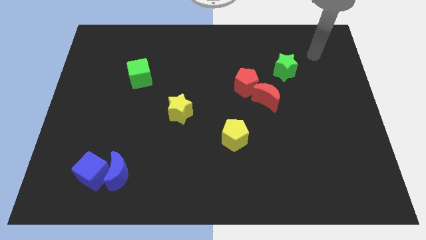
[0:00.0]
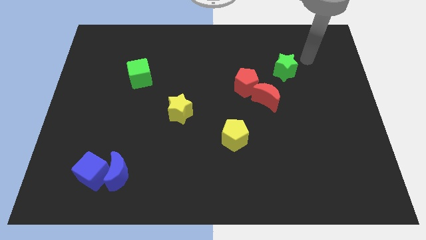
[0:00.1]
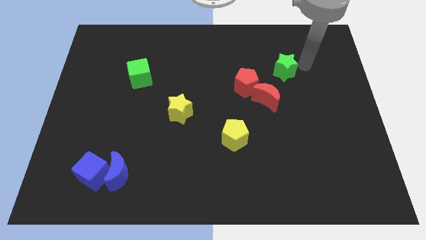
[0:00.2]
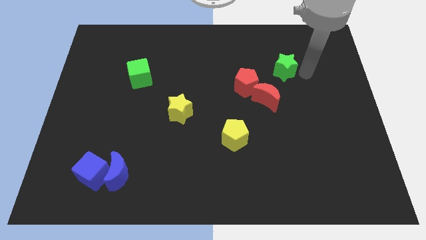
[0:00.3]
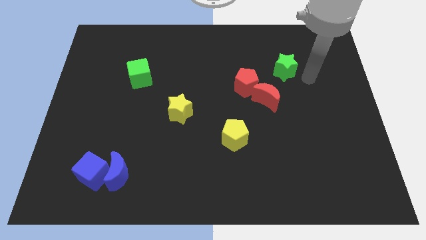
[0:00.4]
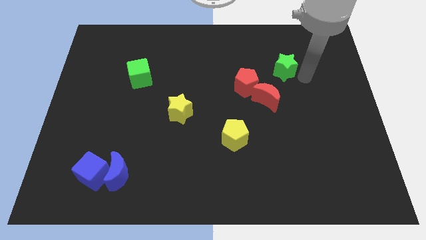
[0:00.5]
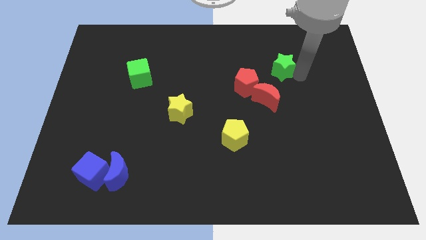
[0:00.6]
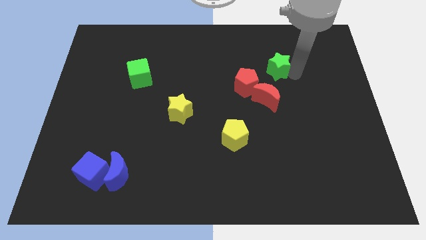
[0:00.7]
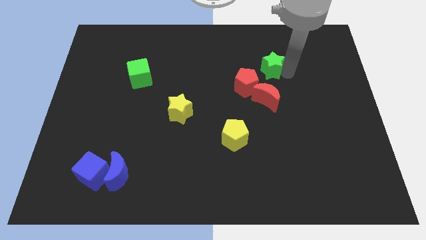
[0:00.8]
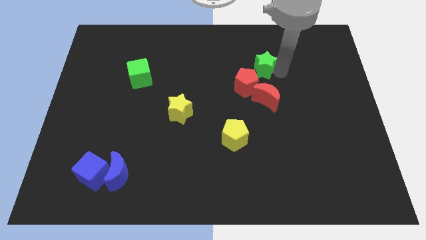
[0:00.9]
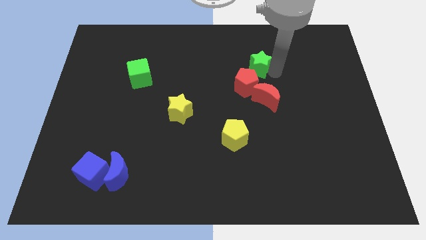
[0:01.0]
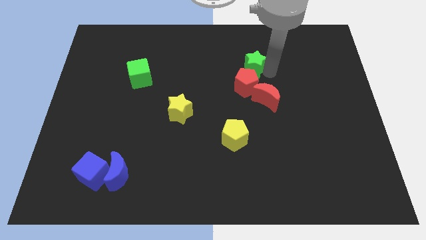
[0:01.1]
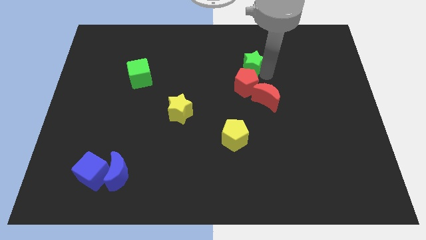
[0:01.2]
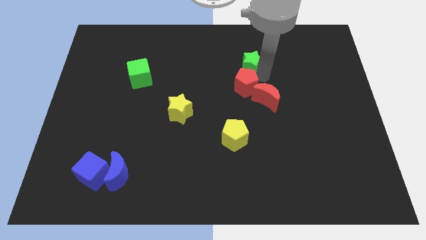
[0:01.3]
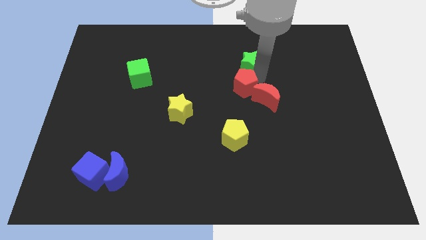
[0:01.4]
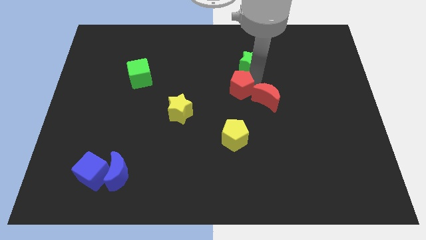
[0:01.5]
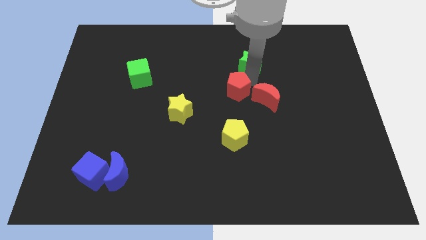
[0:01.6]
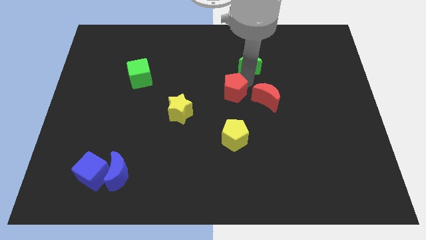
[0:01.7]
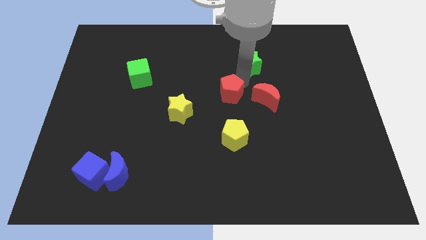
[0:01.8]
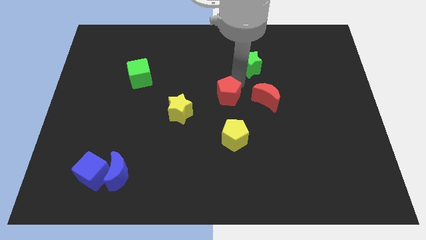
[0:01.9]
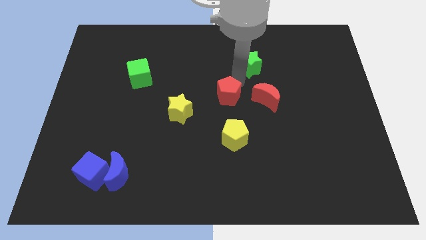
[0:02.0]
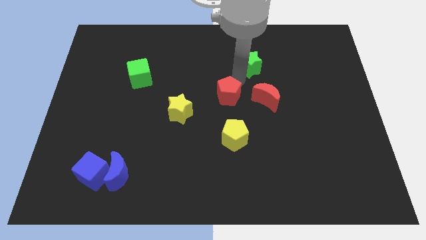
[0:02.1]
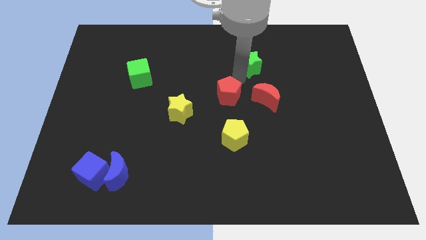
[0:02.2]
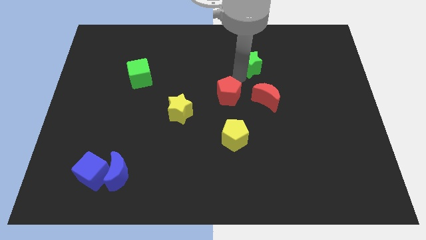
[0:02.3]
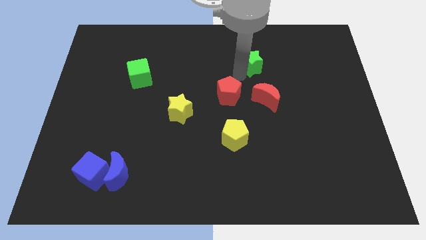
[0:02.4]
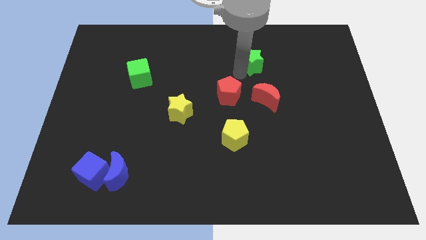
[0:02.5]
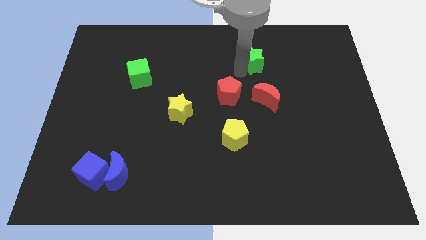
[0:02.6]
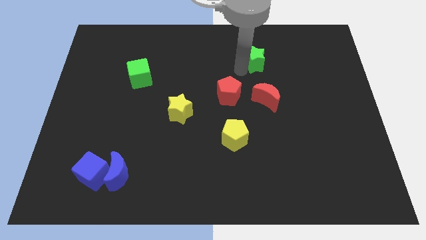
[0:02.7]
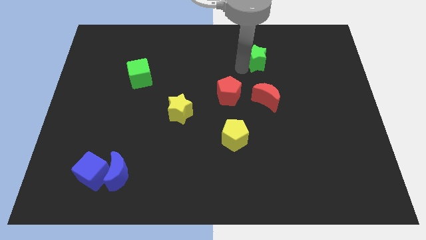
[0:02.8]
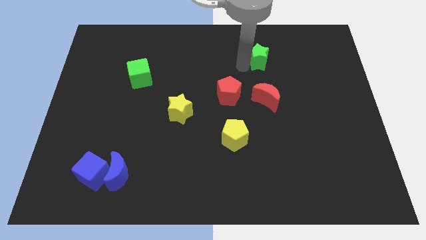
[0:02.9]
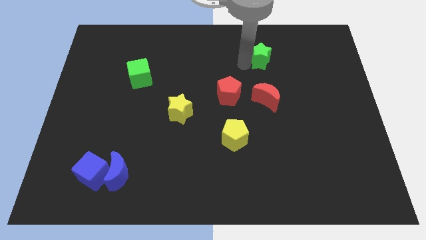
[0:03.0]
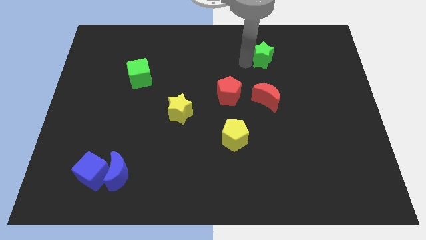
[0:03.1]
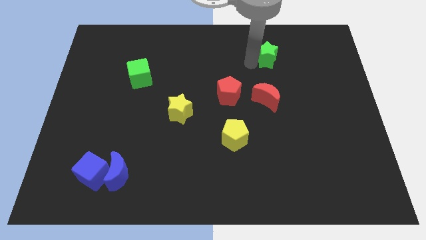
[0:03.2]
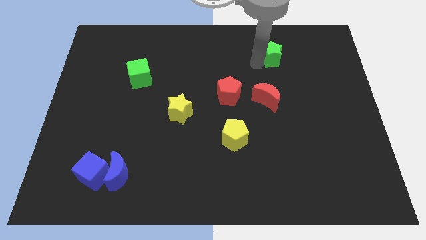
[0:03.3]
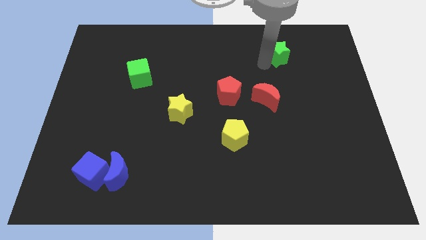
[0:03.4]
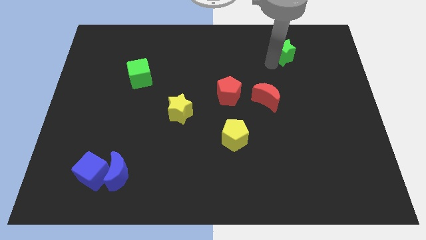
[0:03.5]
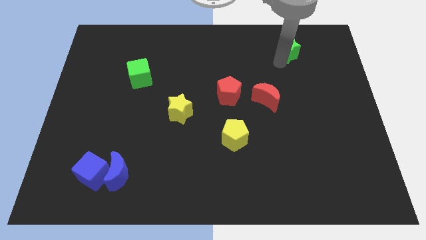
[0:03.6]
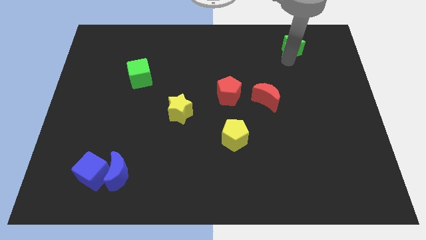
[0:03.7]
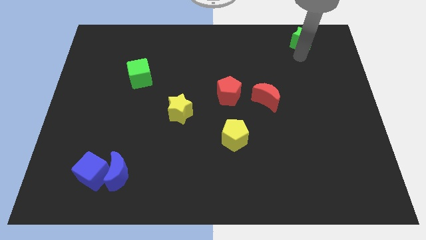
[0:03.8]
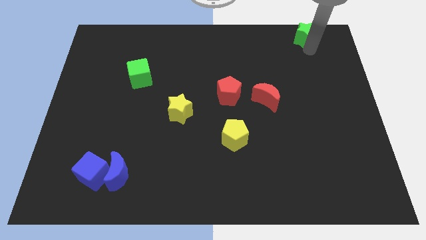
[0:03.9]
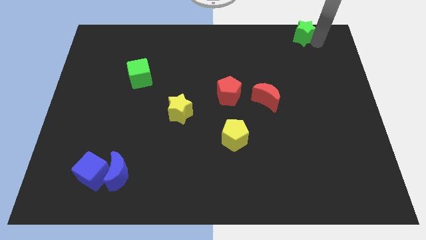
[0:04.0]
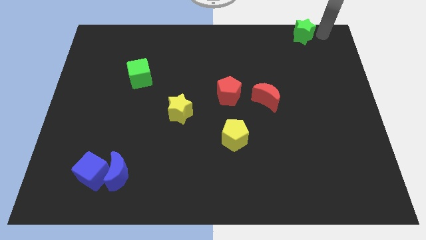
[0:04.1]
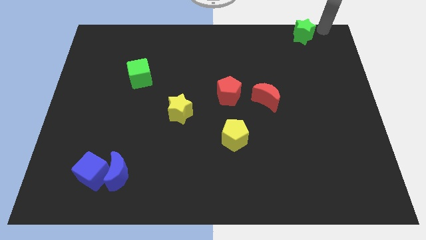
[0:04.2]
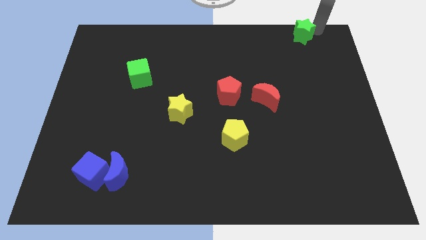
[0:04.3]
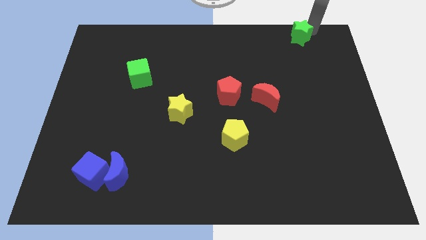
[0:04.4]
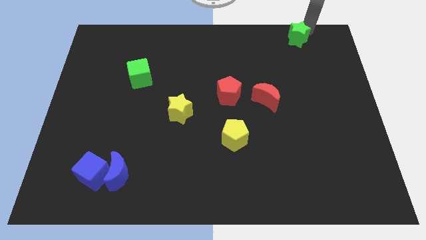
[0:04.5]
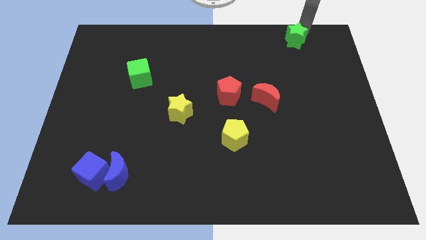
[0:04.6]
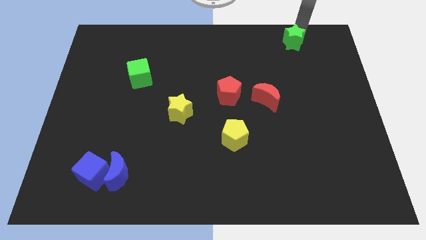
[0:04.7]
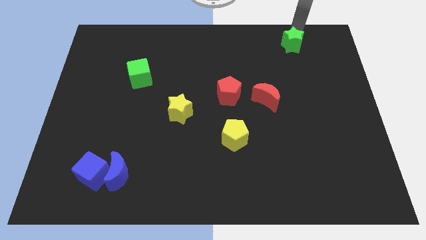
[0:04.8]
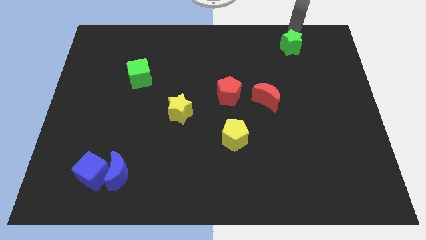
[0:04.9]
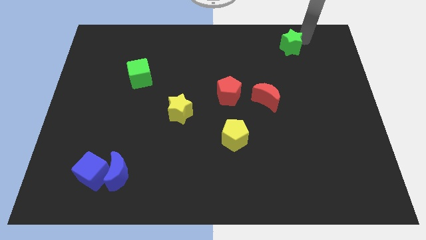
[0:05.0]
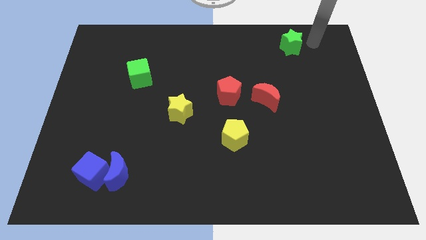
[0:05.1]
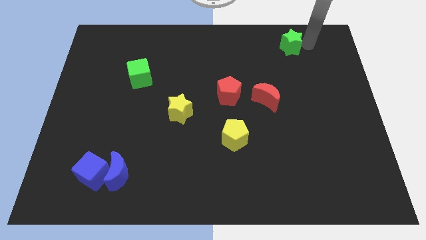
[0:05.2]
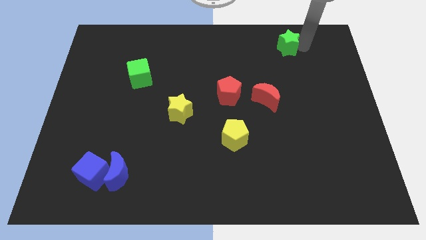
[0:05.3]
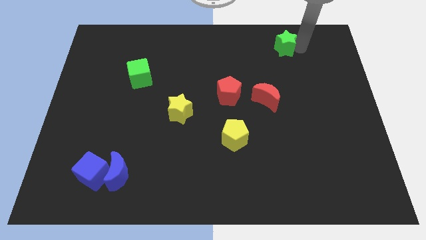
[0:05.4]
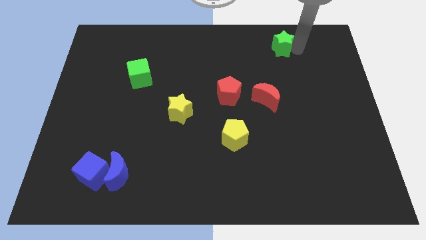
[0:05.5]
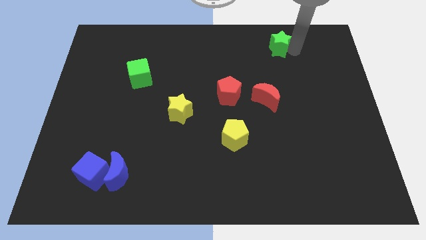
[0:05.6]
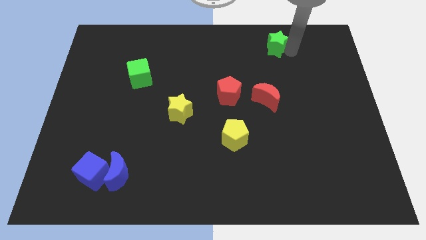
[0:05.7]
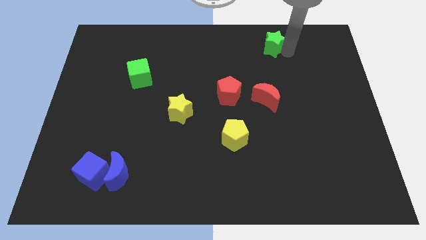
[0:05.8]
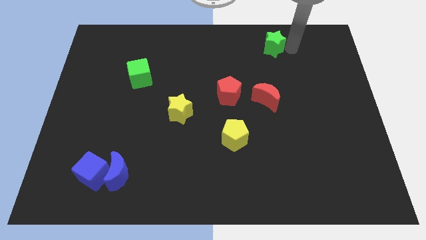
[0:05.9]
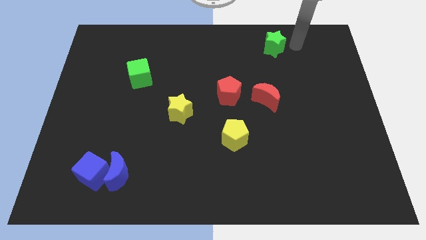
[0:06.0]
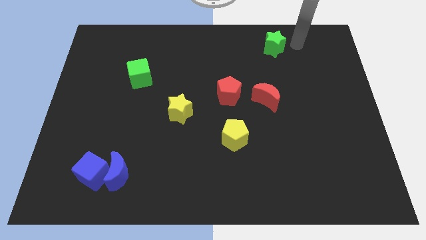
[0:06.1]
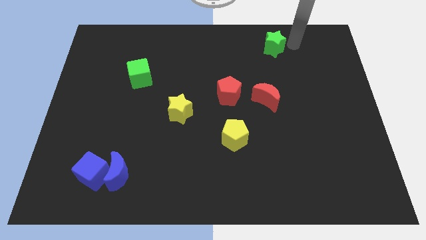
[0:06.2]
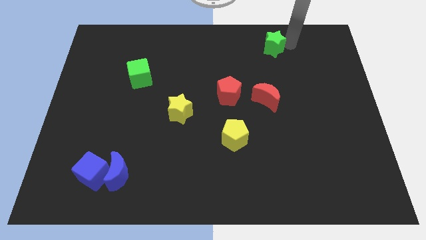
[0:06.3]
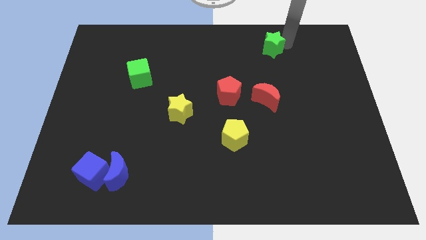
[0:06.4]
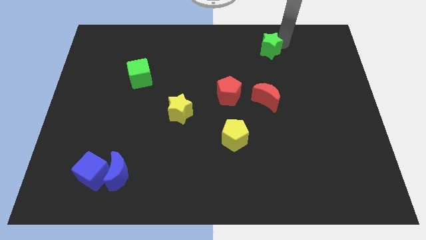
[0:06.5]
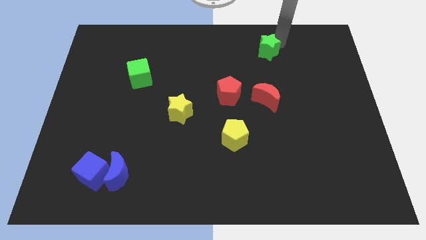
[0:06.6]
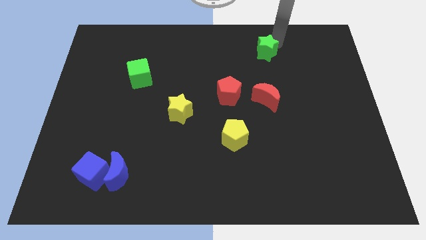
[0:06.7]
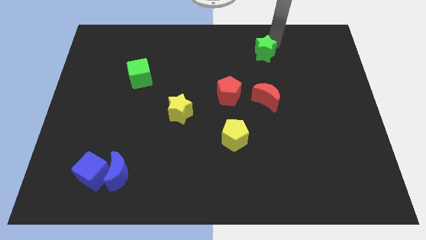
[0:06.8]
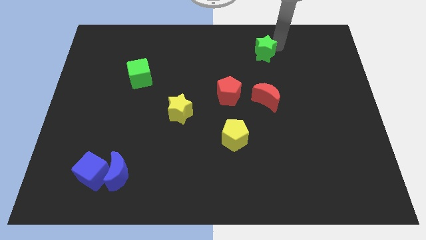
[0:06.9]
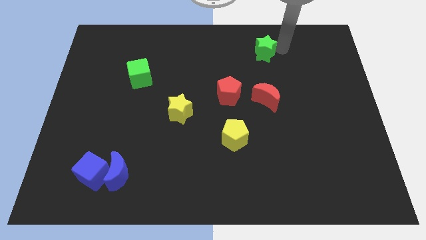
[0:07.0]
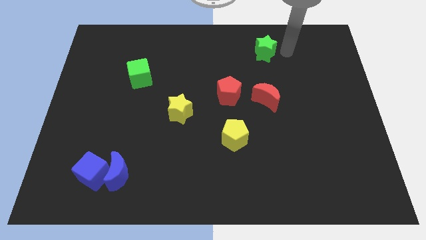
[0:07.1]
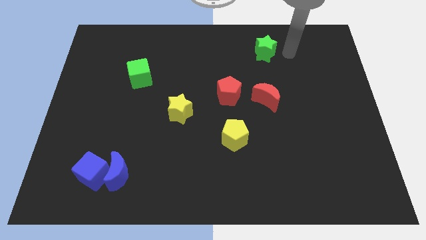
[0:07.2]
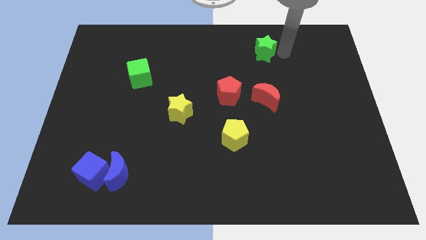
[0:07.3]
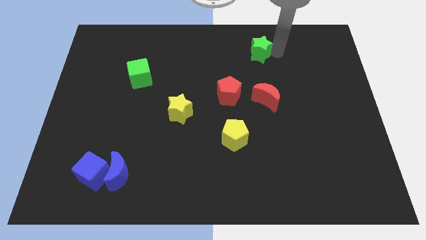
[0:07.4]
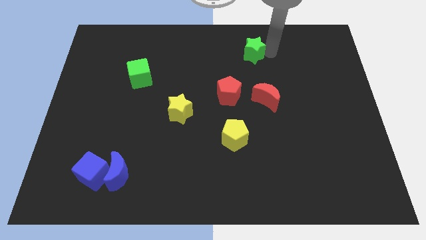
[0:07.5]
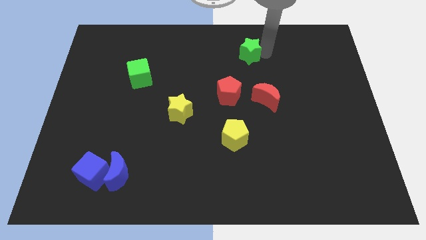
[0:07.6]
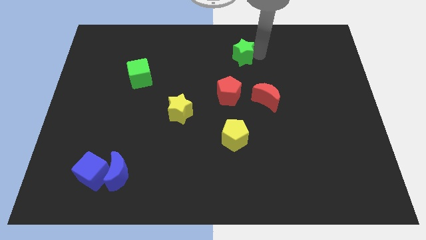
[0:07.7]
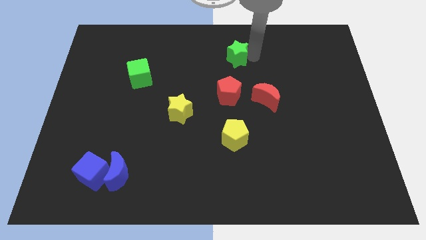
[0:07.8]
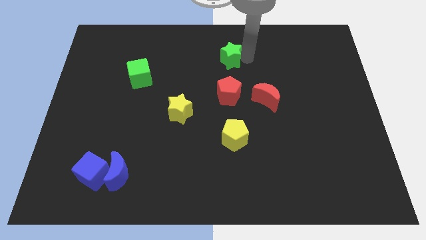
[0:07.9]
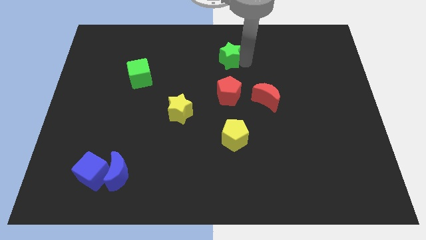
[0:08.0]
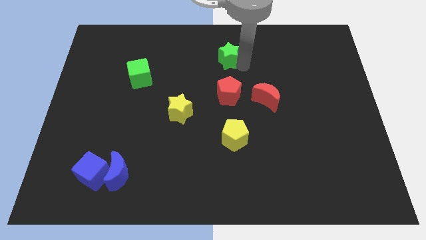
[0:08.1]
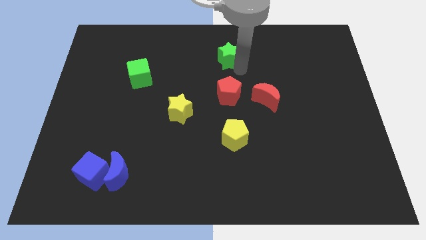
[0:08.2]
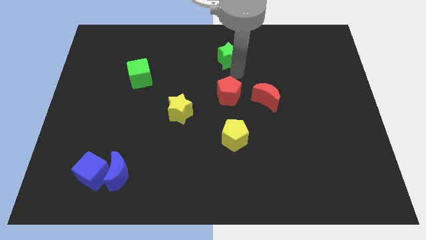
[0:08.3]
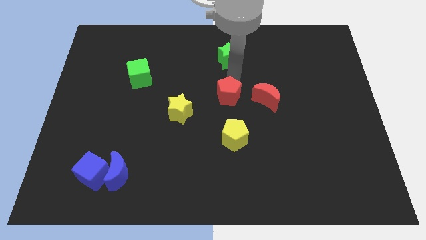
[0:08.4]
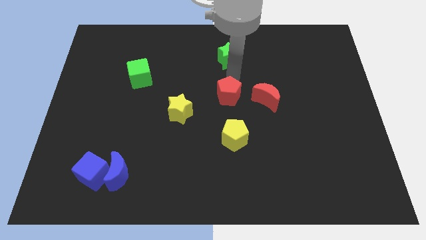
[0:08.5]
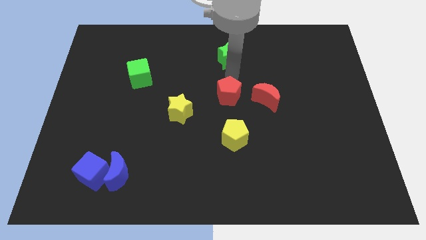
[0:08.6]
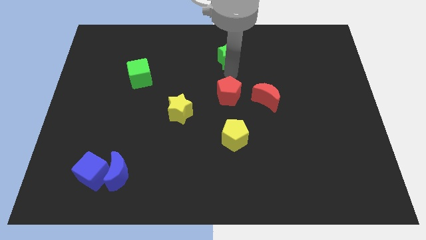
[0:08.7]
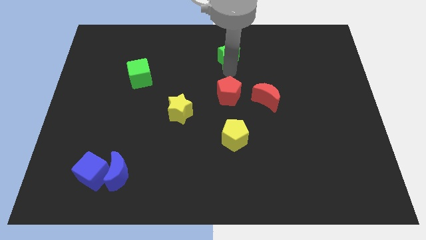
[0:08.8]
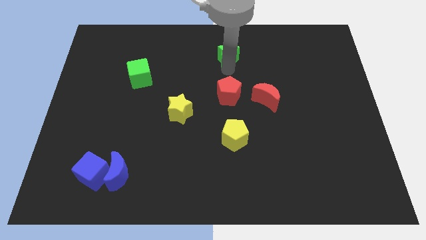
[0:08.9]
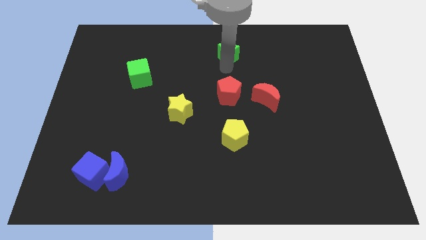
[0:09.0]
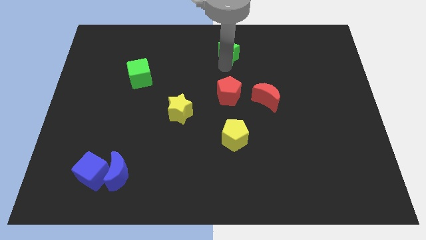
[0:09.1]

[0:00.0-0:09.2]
put the green star to the top
